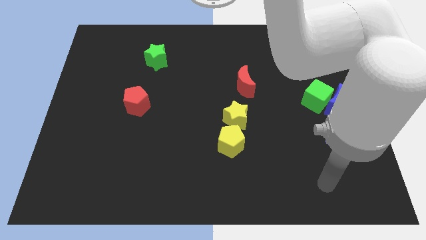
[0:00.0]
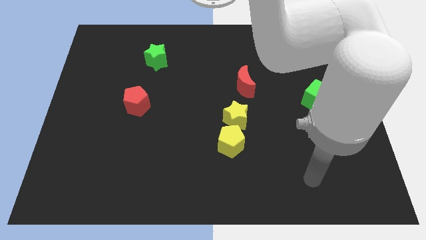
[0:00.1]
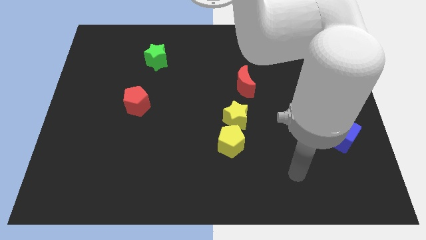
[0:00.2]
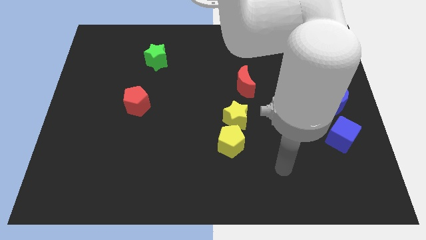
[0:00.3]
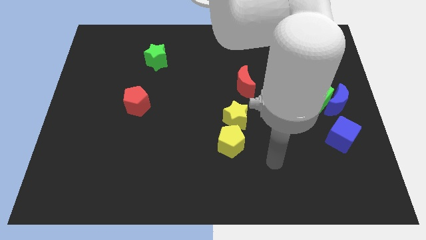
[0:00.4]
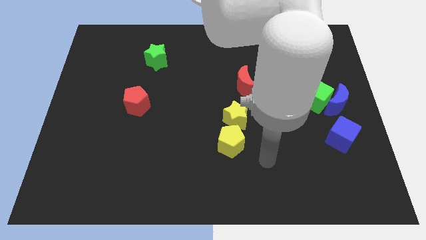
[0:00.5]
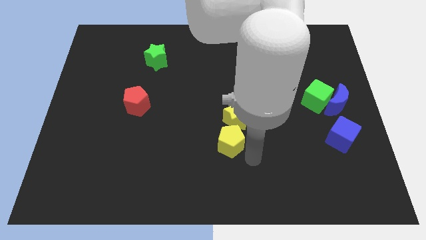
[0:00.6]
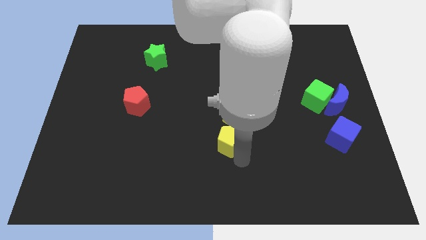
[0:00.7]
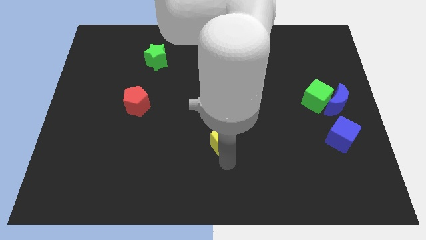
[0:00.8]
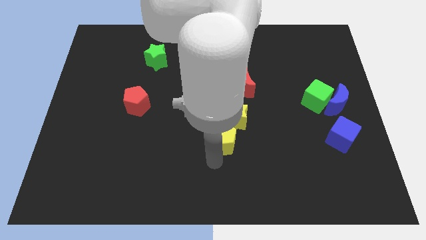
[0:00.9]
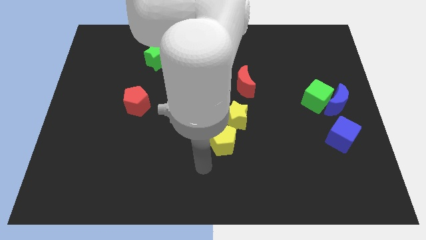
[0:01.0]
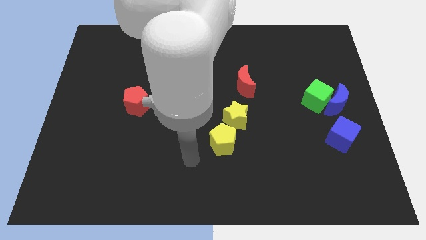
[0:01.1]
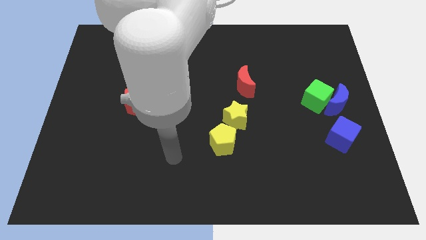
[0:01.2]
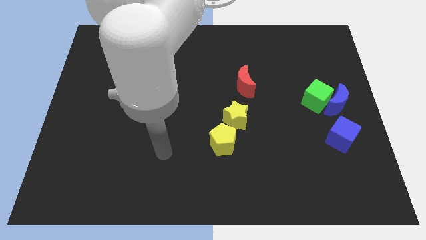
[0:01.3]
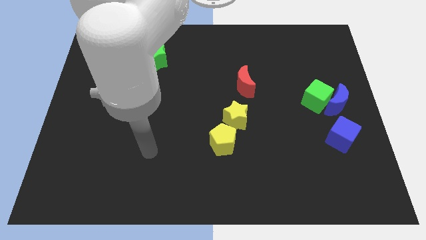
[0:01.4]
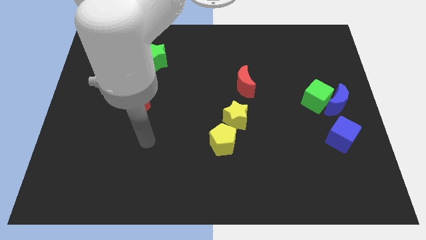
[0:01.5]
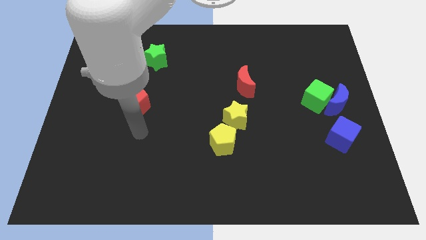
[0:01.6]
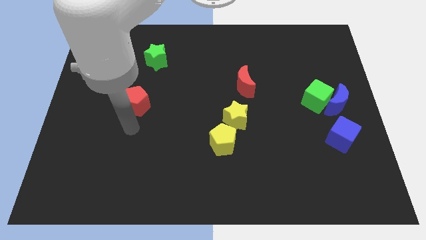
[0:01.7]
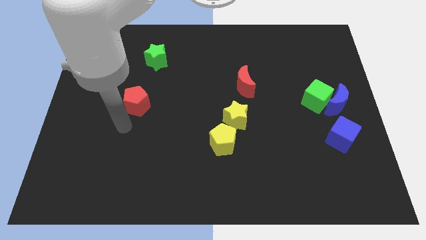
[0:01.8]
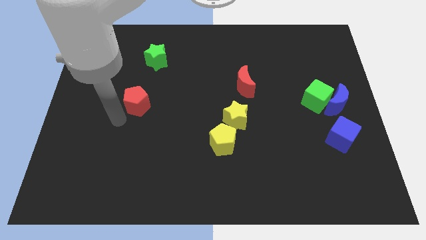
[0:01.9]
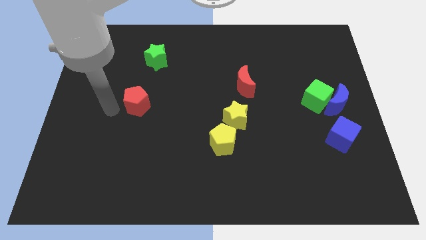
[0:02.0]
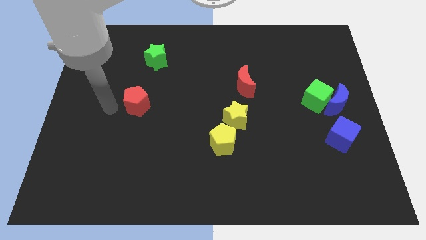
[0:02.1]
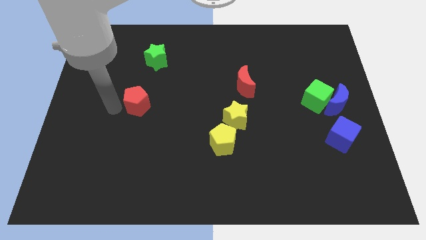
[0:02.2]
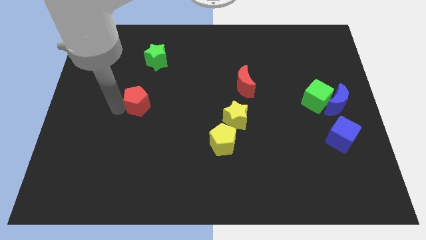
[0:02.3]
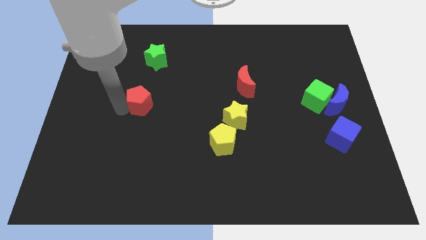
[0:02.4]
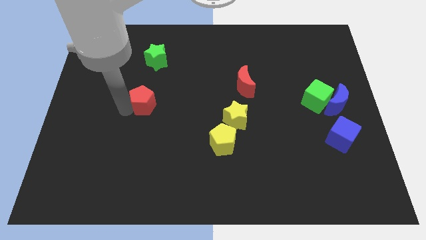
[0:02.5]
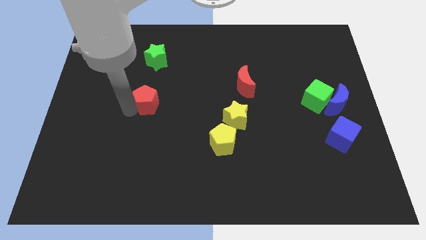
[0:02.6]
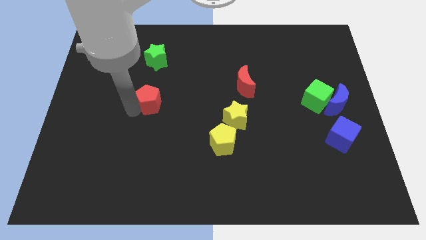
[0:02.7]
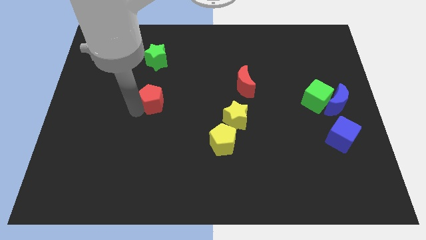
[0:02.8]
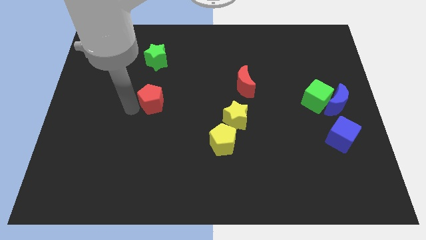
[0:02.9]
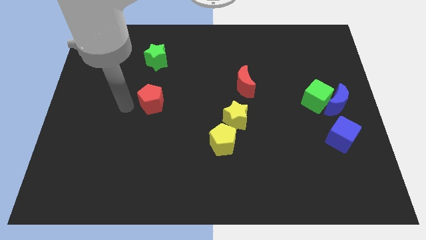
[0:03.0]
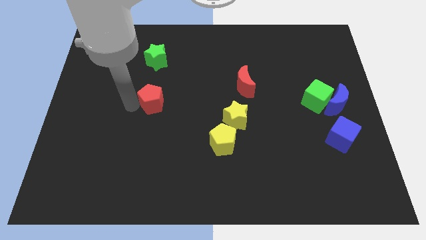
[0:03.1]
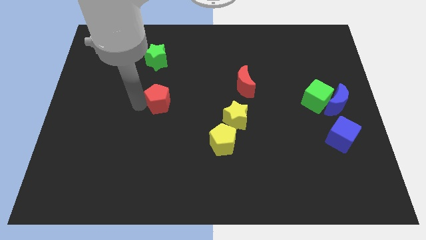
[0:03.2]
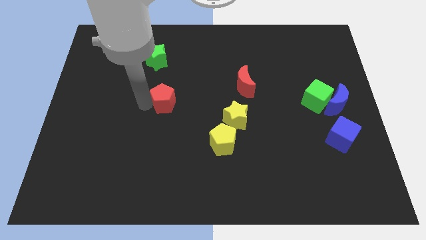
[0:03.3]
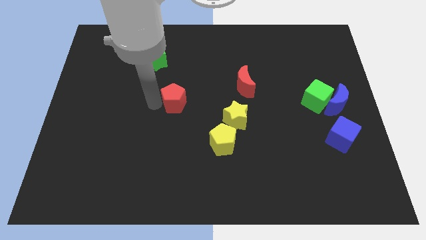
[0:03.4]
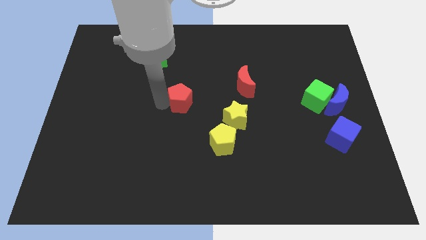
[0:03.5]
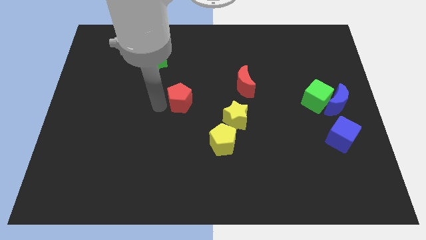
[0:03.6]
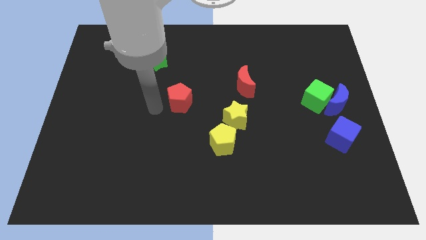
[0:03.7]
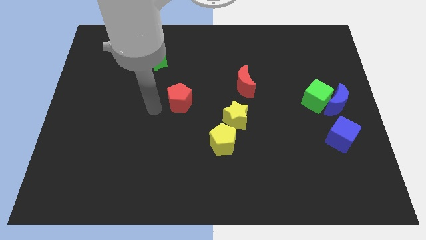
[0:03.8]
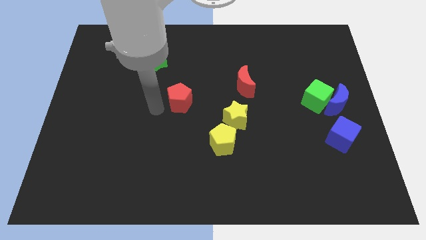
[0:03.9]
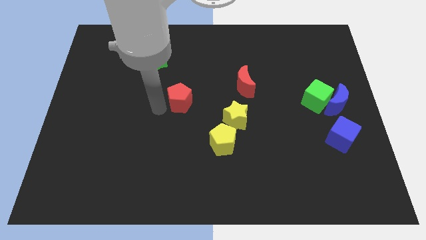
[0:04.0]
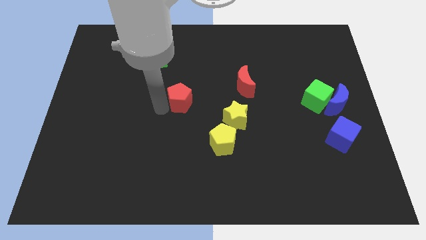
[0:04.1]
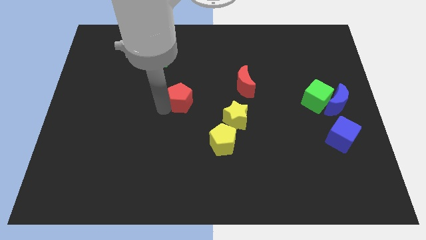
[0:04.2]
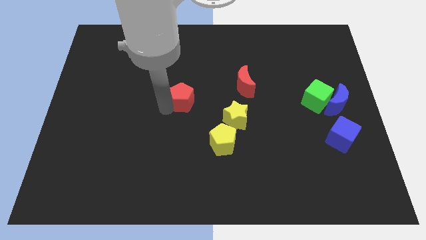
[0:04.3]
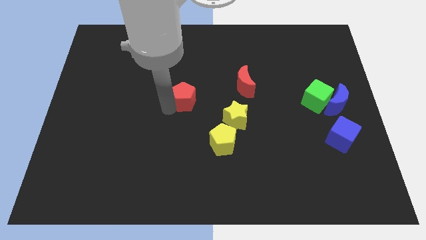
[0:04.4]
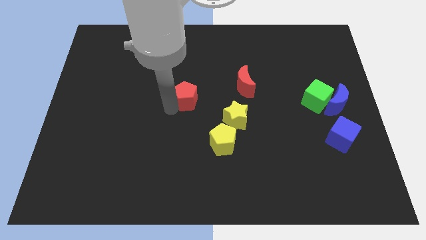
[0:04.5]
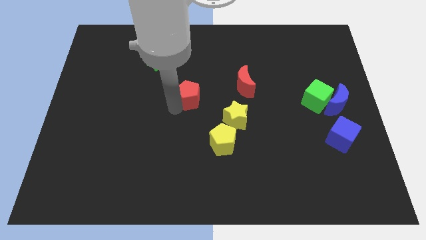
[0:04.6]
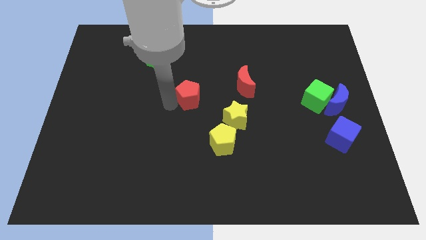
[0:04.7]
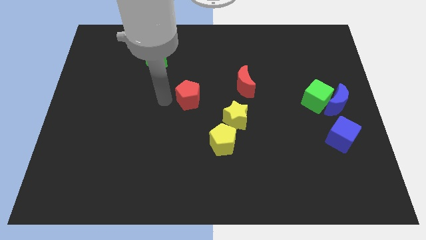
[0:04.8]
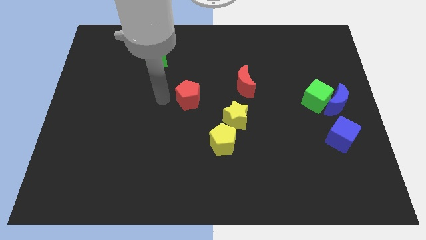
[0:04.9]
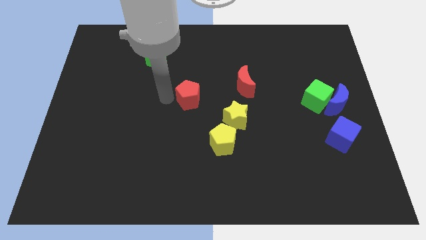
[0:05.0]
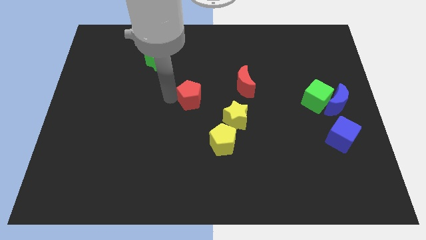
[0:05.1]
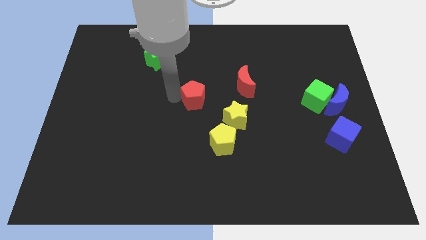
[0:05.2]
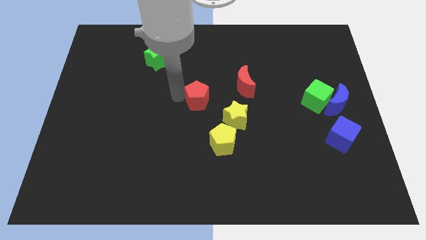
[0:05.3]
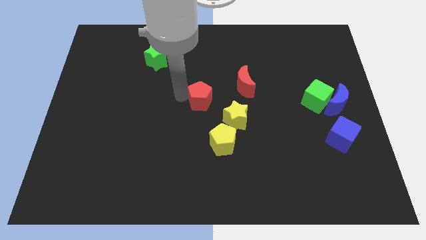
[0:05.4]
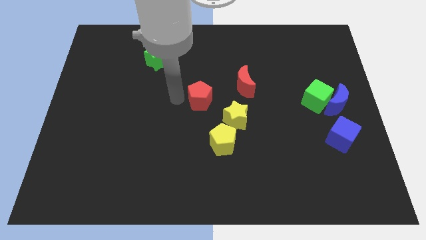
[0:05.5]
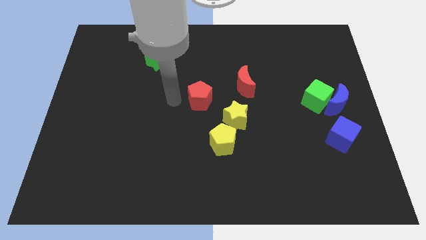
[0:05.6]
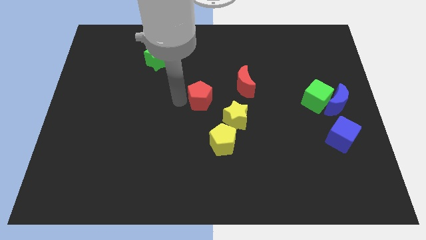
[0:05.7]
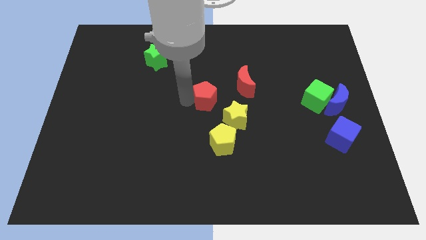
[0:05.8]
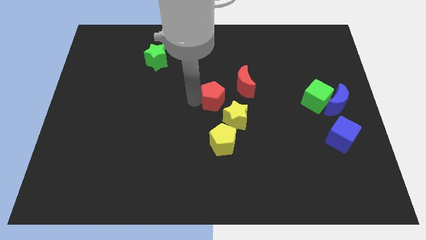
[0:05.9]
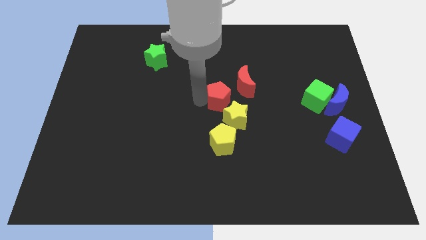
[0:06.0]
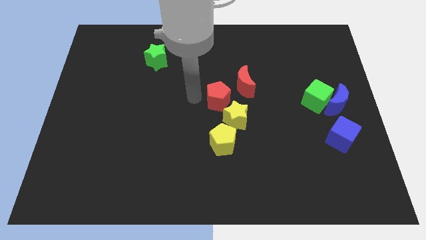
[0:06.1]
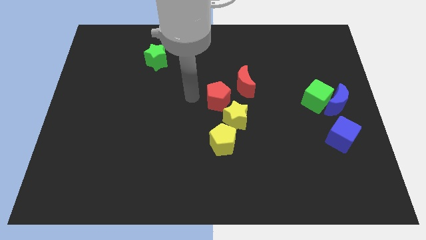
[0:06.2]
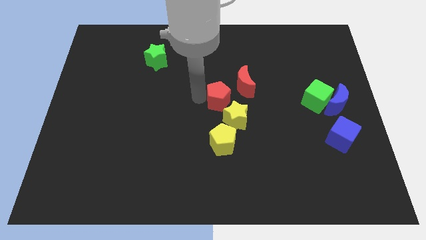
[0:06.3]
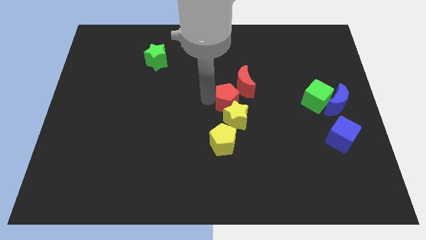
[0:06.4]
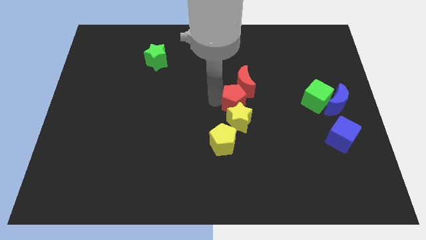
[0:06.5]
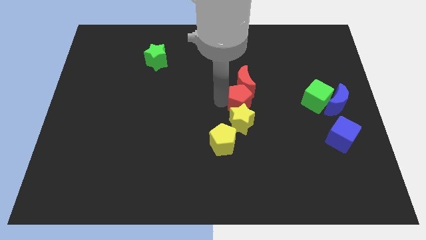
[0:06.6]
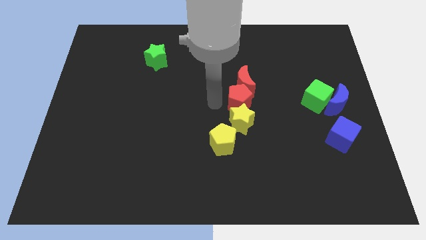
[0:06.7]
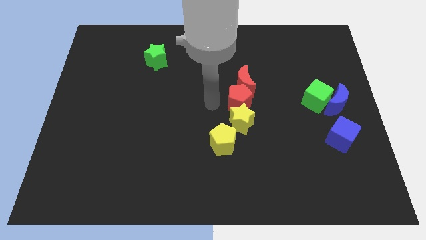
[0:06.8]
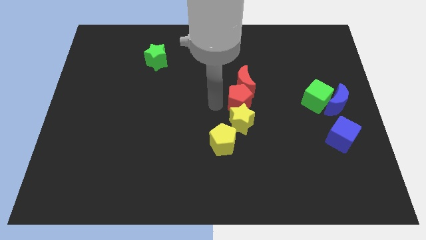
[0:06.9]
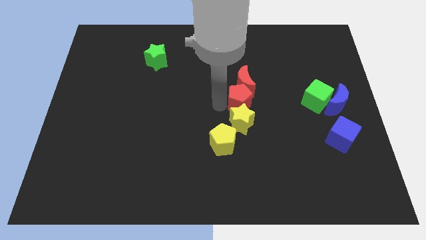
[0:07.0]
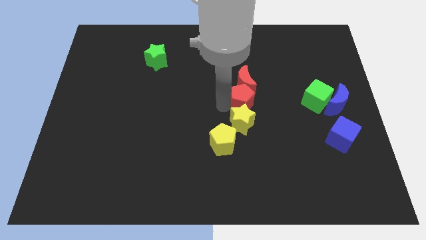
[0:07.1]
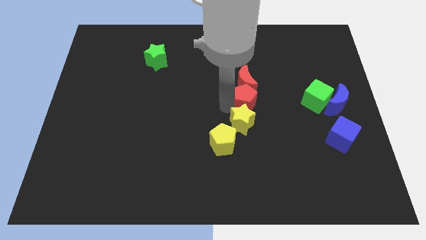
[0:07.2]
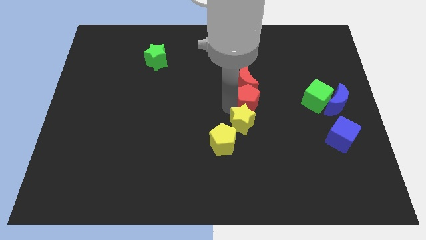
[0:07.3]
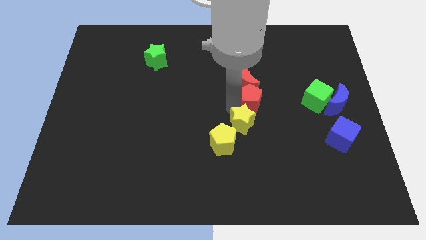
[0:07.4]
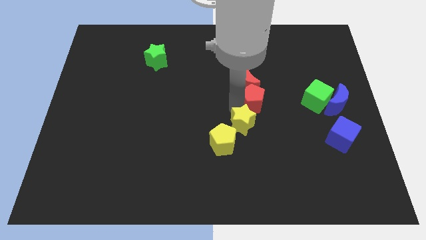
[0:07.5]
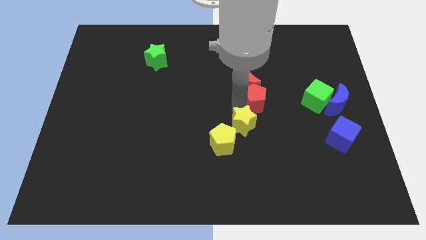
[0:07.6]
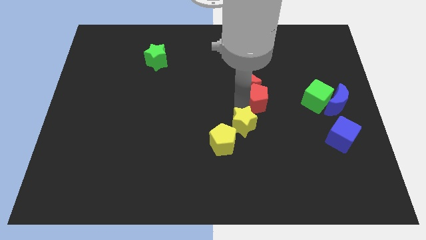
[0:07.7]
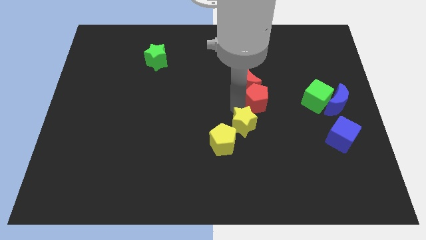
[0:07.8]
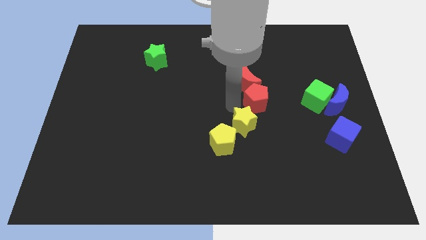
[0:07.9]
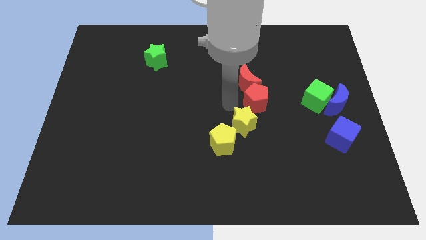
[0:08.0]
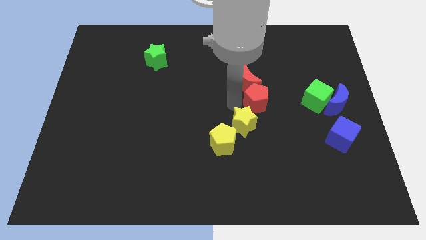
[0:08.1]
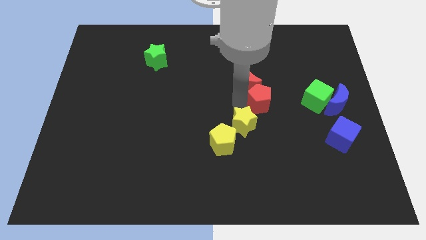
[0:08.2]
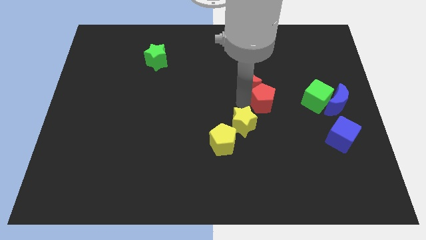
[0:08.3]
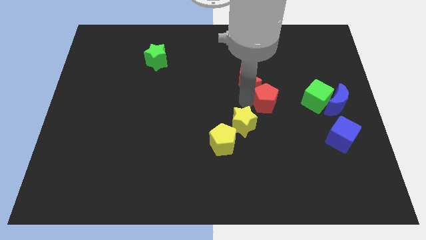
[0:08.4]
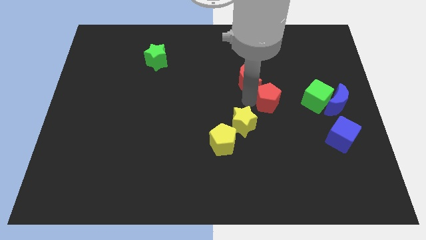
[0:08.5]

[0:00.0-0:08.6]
push the red pentagon to the left side of the blue moon
